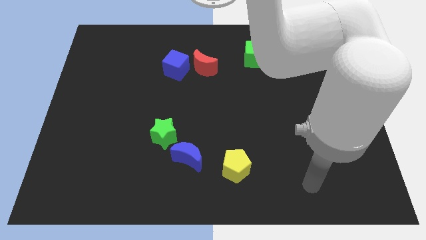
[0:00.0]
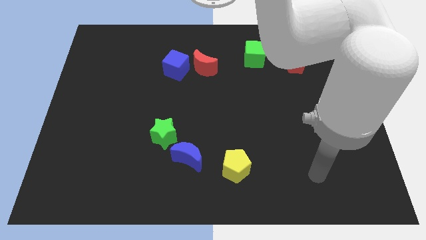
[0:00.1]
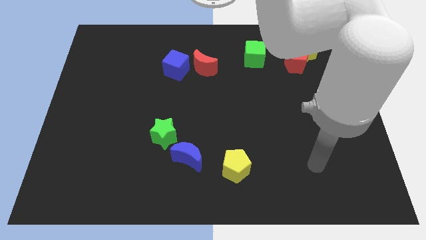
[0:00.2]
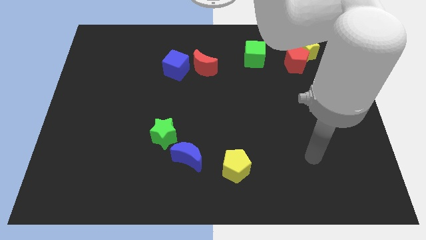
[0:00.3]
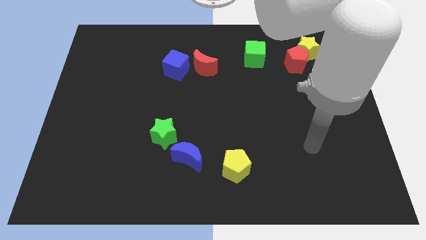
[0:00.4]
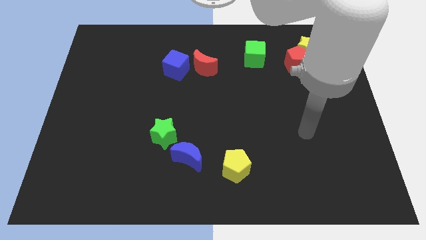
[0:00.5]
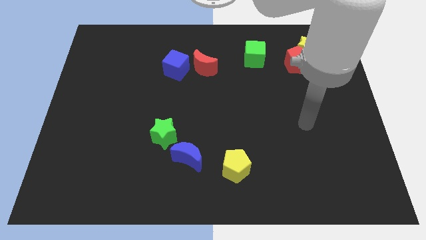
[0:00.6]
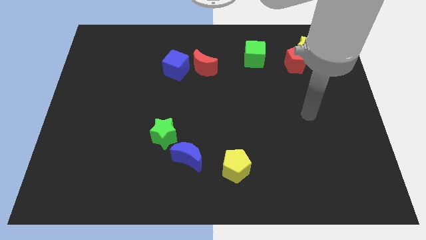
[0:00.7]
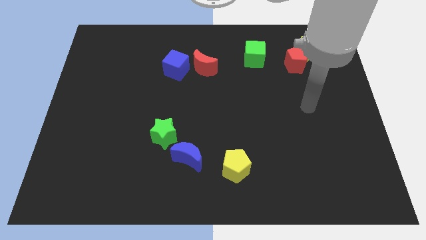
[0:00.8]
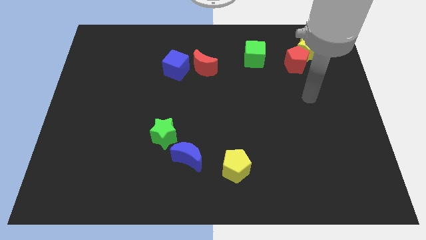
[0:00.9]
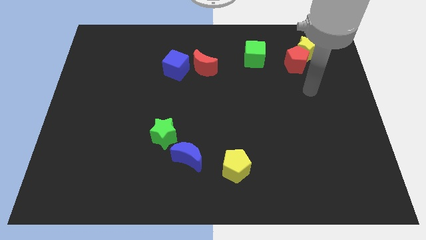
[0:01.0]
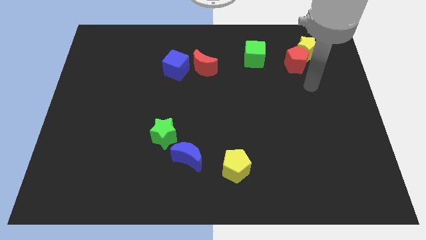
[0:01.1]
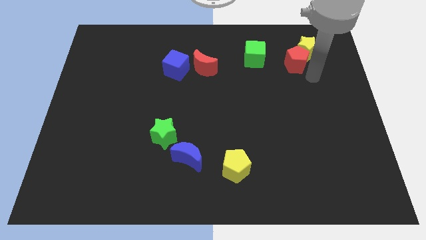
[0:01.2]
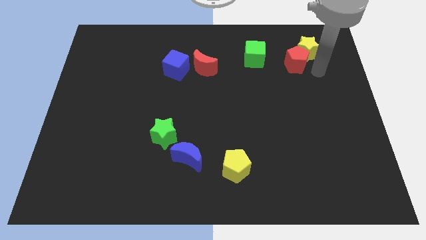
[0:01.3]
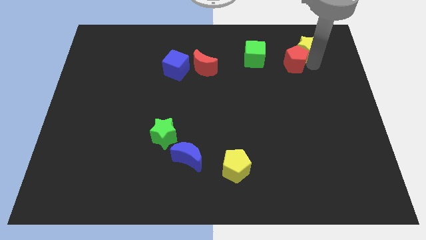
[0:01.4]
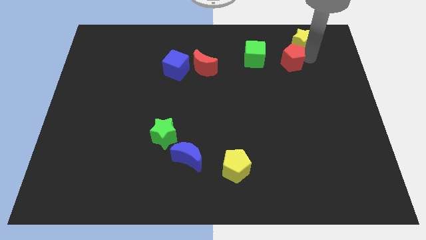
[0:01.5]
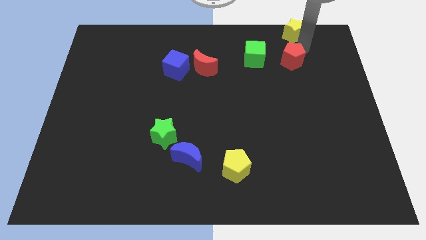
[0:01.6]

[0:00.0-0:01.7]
move the red pentagon away from the yellow star

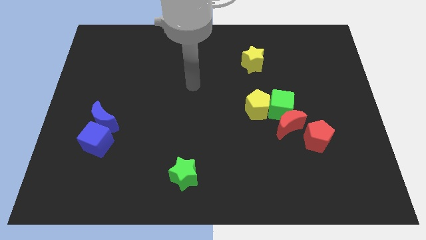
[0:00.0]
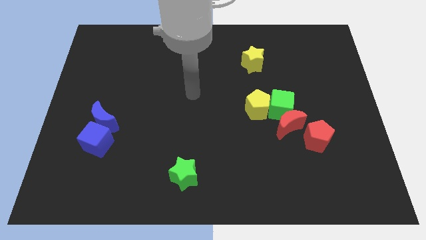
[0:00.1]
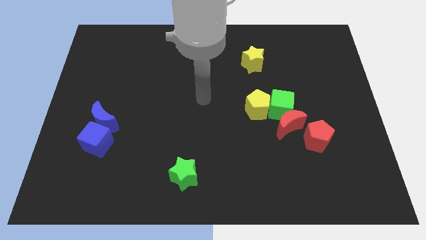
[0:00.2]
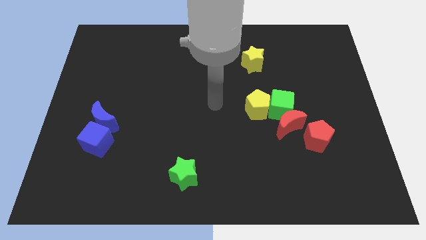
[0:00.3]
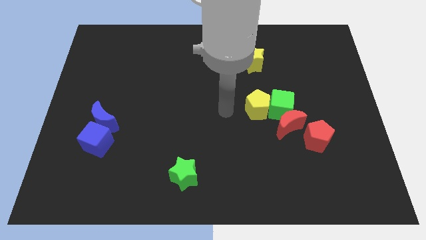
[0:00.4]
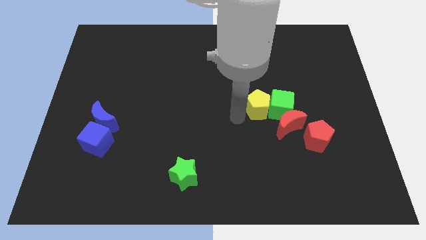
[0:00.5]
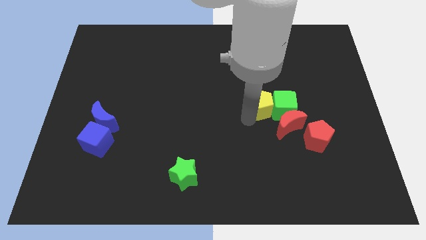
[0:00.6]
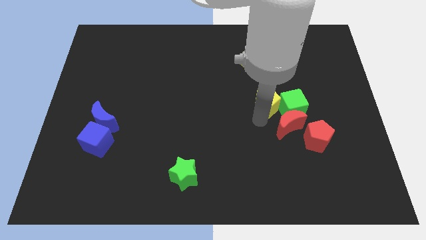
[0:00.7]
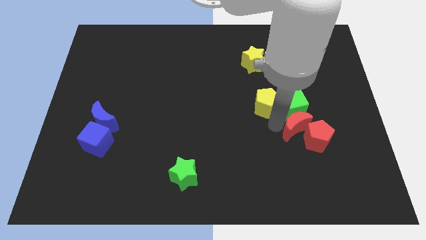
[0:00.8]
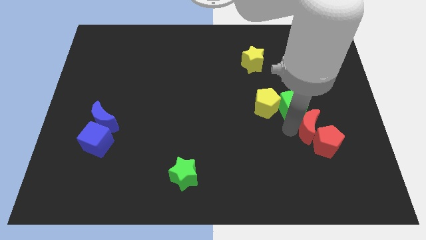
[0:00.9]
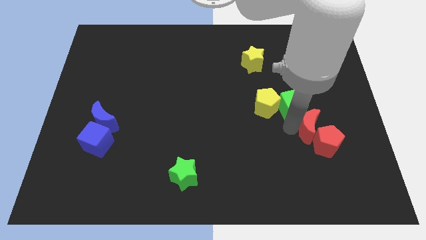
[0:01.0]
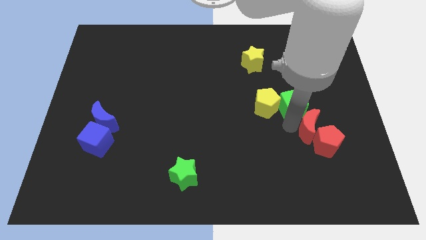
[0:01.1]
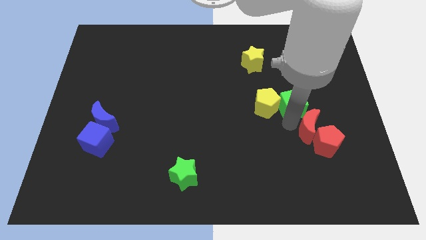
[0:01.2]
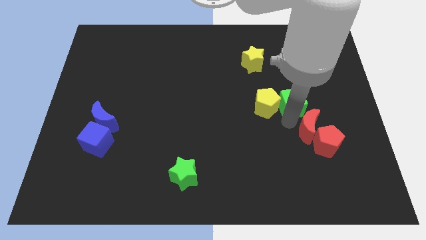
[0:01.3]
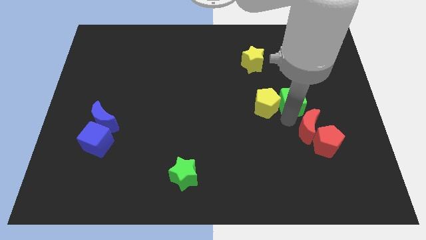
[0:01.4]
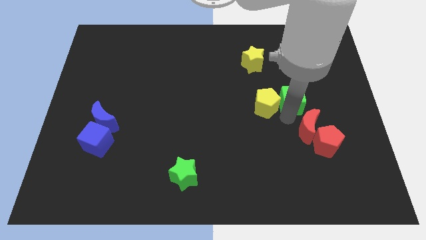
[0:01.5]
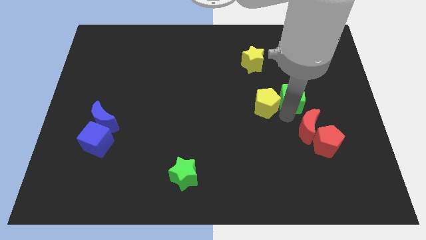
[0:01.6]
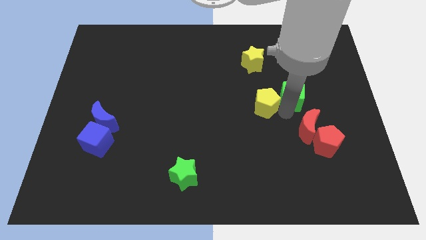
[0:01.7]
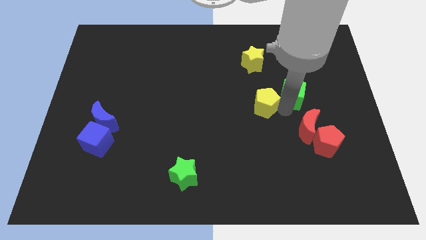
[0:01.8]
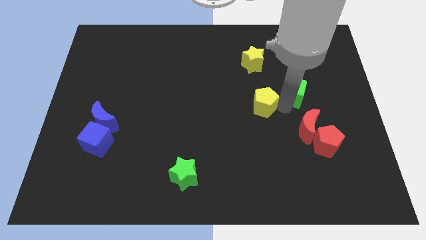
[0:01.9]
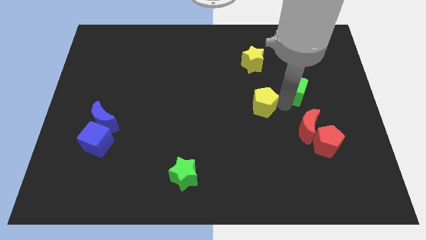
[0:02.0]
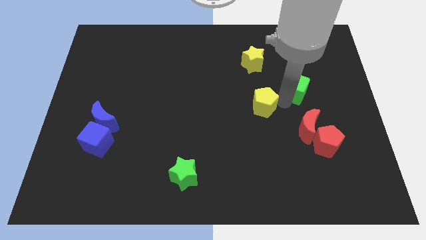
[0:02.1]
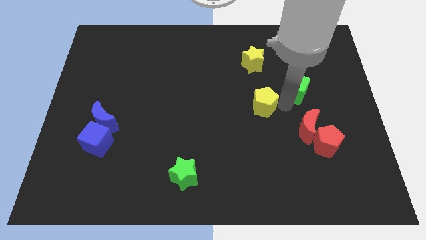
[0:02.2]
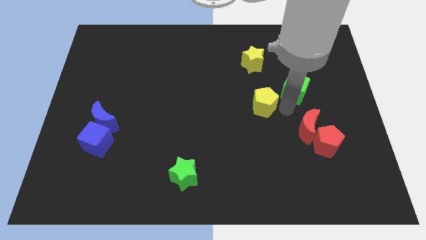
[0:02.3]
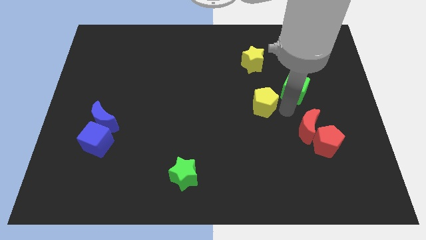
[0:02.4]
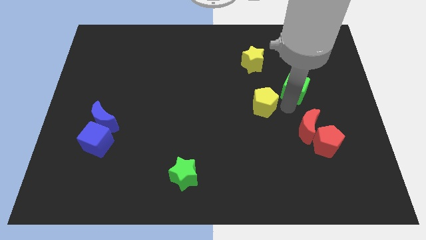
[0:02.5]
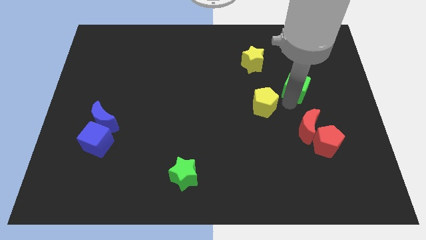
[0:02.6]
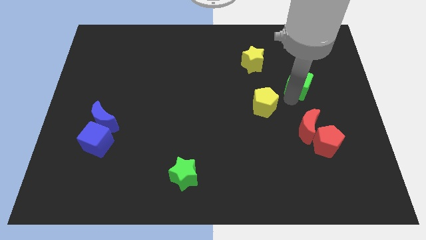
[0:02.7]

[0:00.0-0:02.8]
move the green cube away from the red moon and yellow pentagon

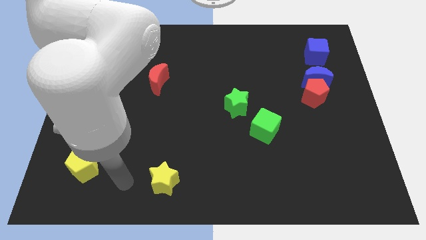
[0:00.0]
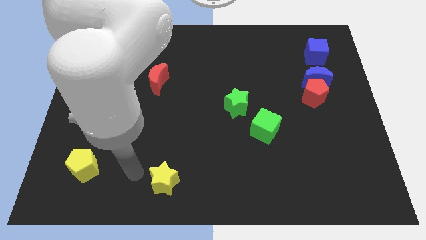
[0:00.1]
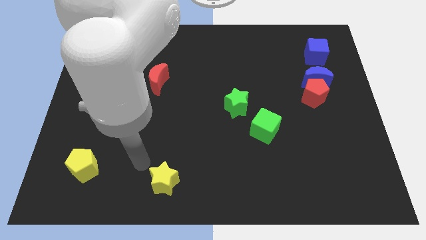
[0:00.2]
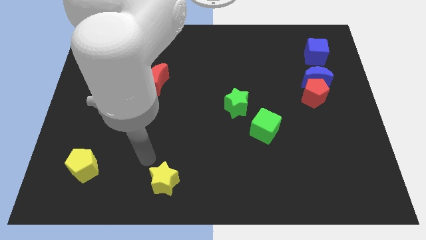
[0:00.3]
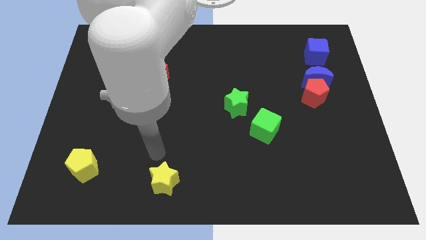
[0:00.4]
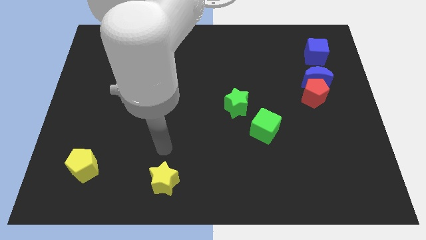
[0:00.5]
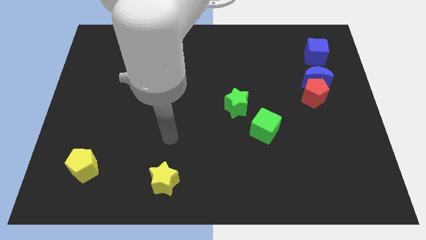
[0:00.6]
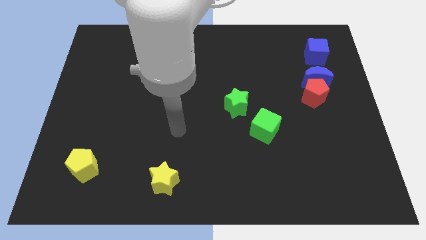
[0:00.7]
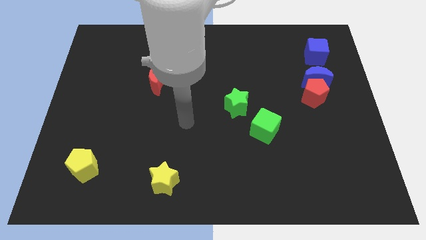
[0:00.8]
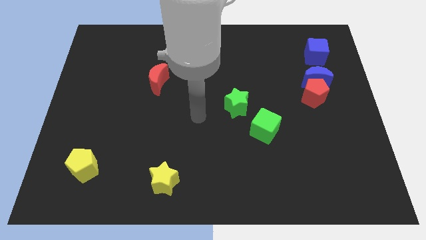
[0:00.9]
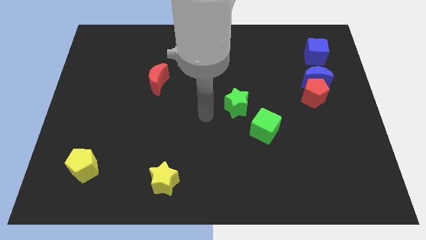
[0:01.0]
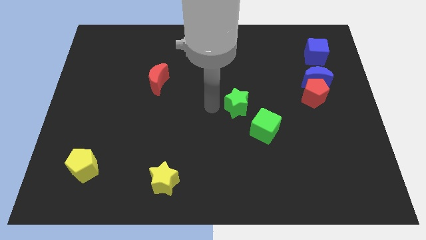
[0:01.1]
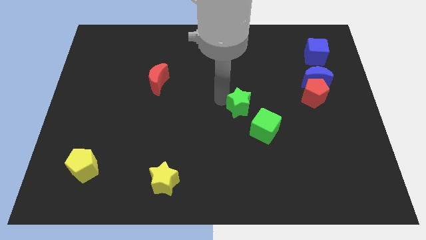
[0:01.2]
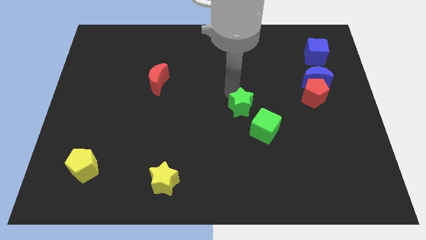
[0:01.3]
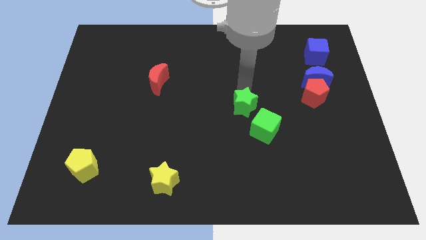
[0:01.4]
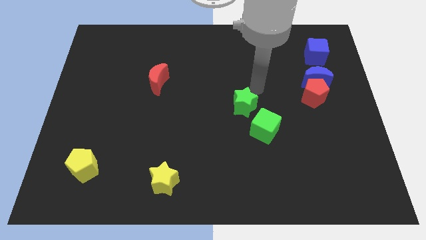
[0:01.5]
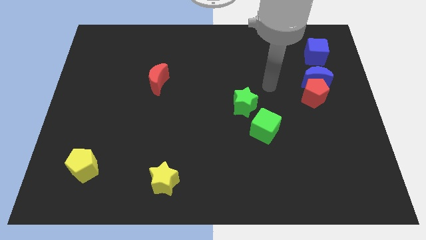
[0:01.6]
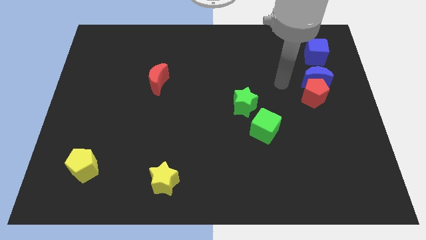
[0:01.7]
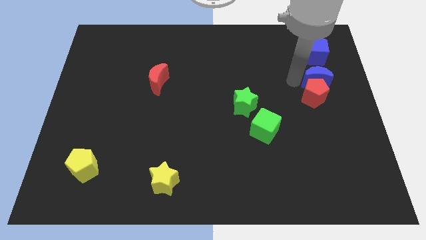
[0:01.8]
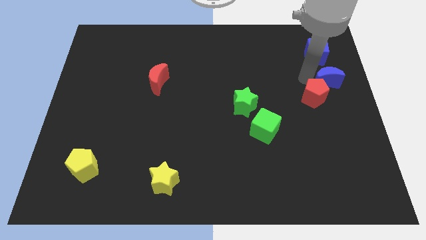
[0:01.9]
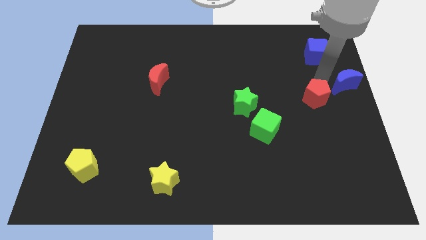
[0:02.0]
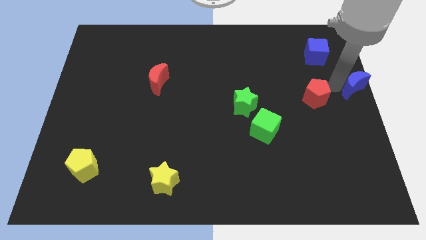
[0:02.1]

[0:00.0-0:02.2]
move the red pentagon away from the blue moon

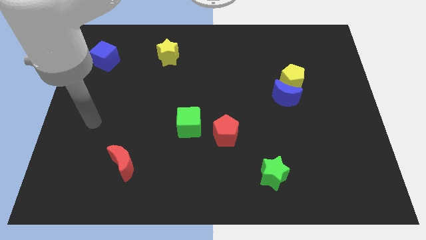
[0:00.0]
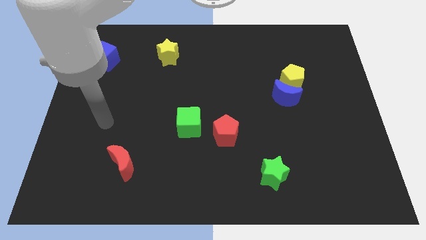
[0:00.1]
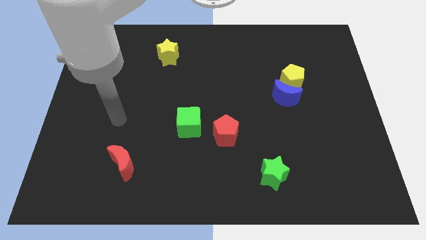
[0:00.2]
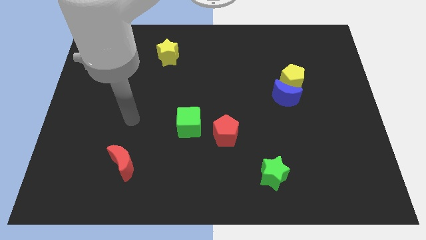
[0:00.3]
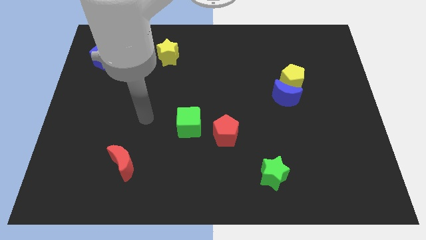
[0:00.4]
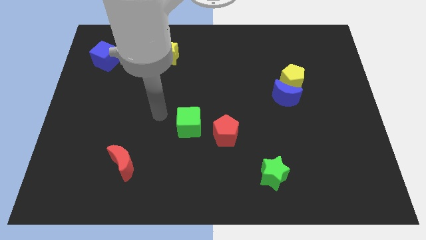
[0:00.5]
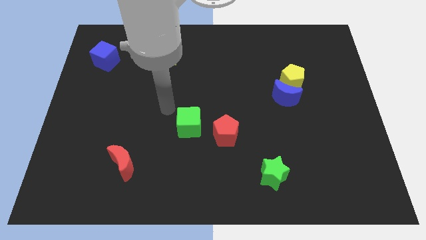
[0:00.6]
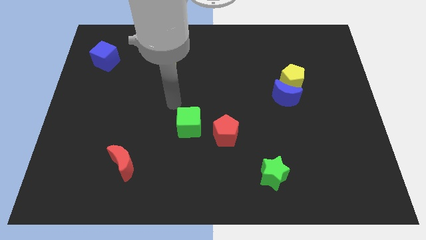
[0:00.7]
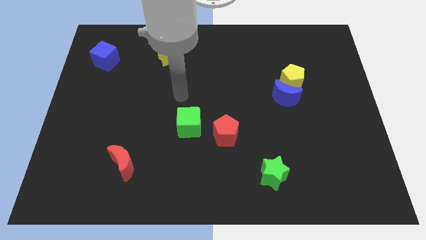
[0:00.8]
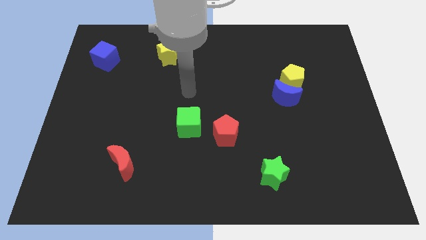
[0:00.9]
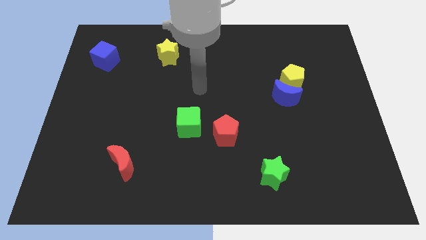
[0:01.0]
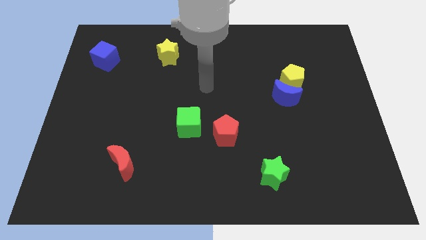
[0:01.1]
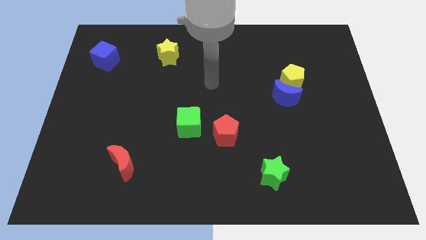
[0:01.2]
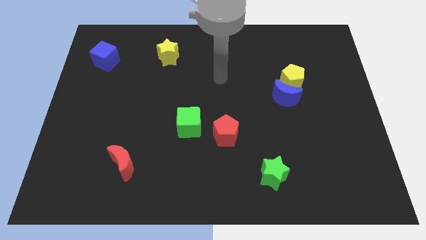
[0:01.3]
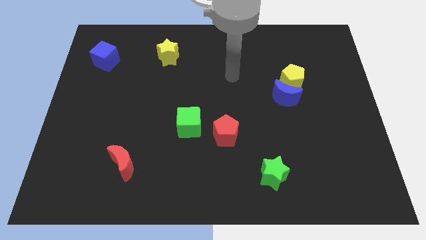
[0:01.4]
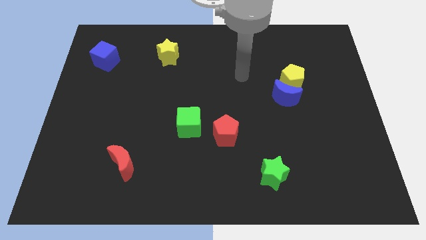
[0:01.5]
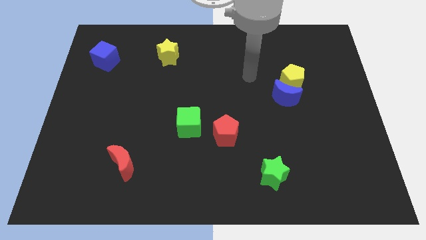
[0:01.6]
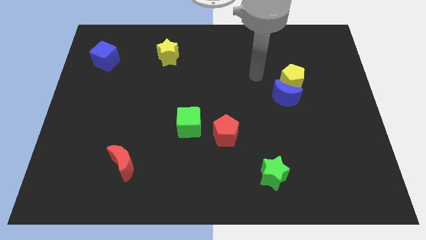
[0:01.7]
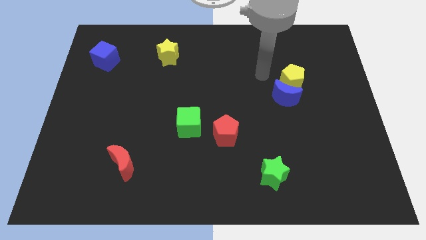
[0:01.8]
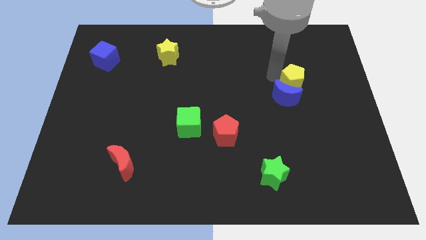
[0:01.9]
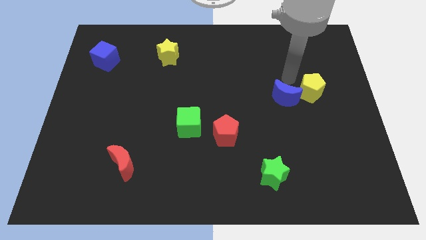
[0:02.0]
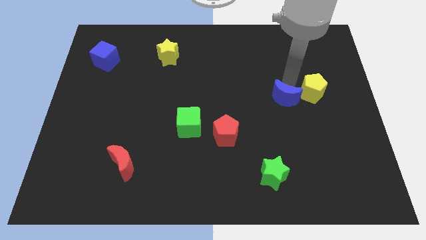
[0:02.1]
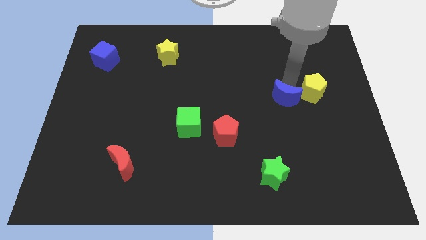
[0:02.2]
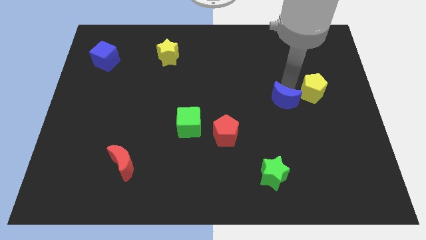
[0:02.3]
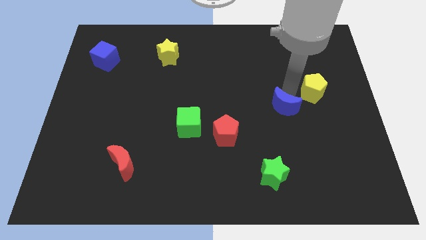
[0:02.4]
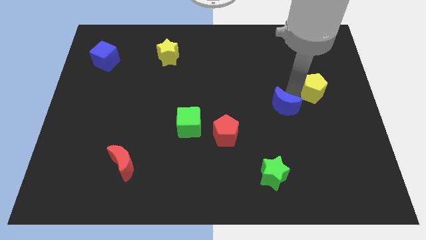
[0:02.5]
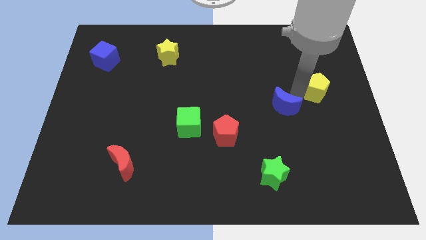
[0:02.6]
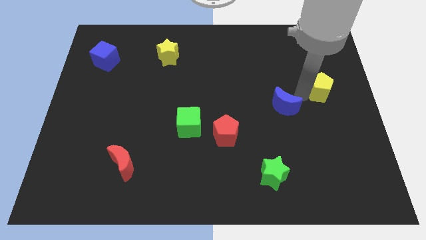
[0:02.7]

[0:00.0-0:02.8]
move the blue moon away from the yellow pentagon

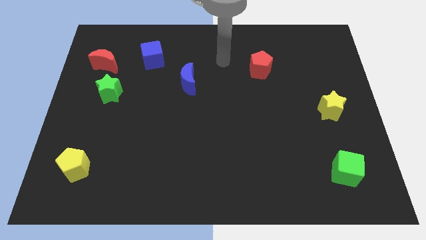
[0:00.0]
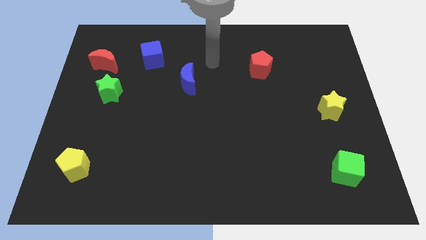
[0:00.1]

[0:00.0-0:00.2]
pull the red moon apart from the green star
